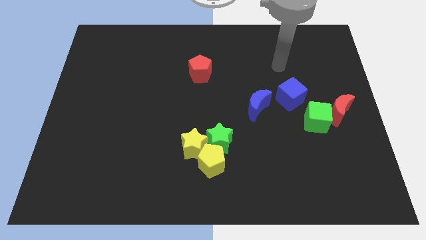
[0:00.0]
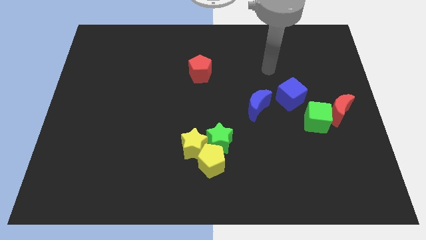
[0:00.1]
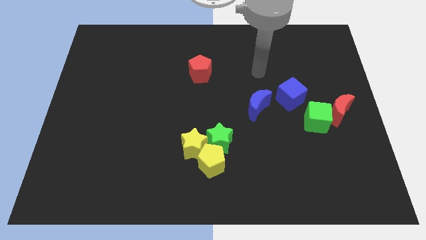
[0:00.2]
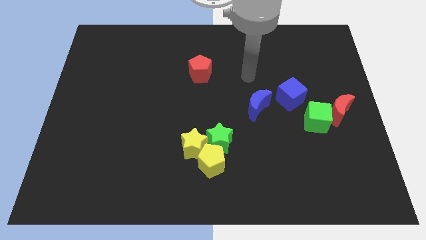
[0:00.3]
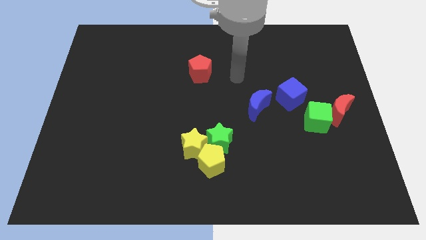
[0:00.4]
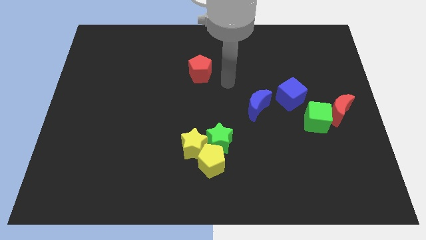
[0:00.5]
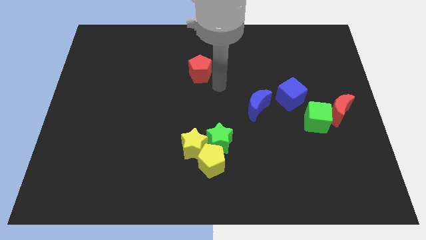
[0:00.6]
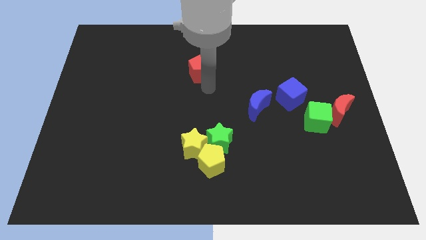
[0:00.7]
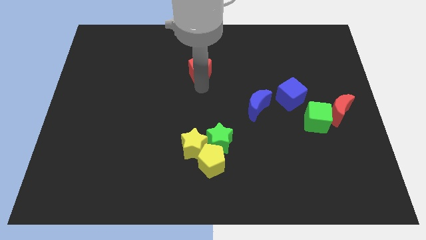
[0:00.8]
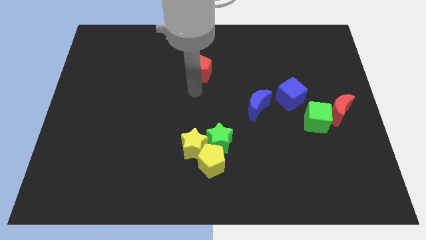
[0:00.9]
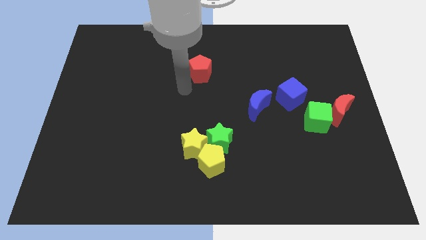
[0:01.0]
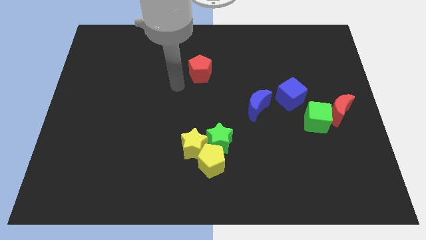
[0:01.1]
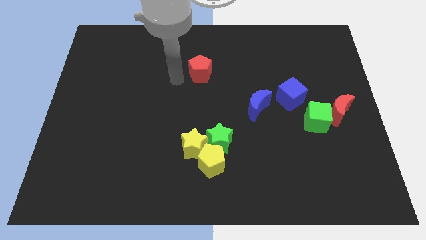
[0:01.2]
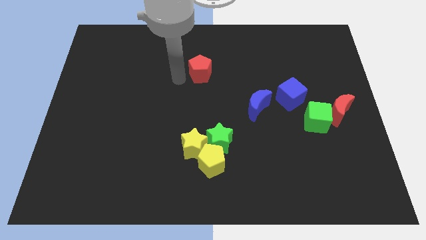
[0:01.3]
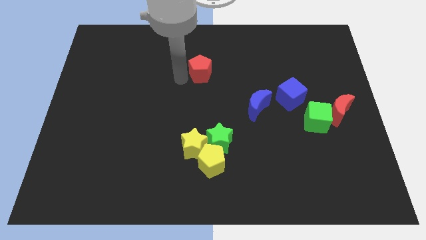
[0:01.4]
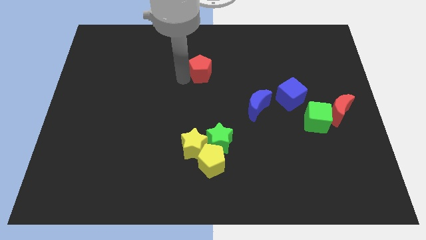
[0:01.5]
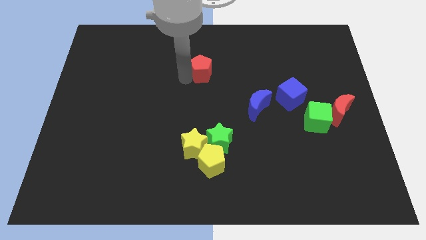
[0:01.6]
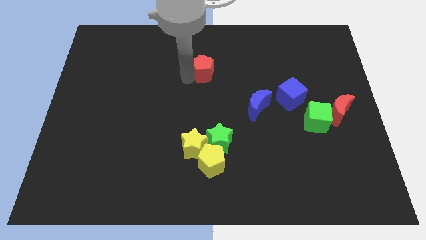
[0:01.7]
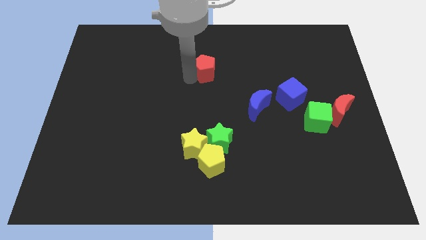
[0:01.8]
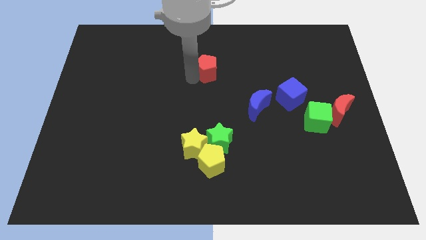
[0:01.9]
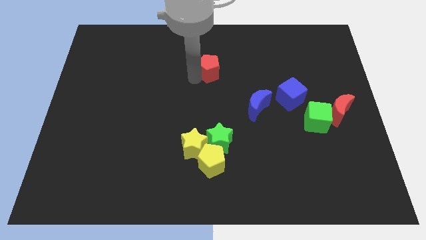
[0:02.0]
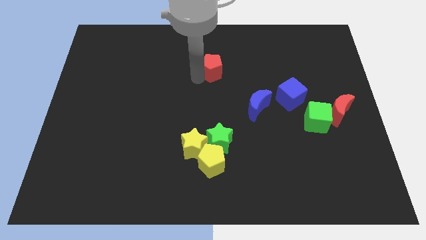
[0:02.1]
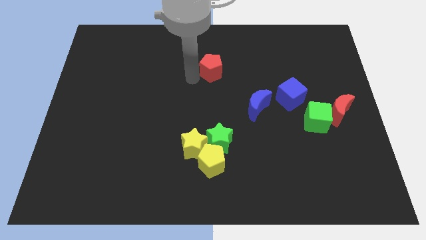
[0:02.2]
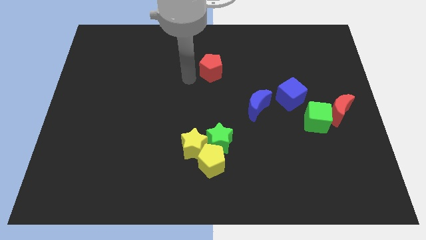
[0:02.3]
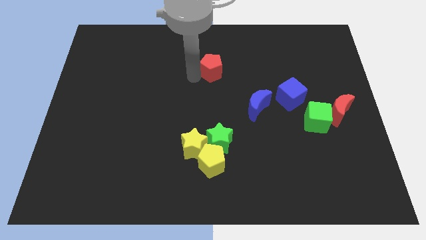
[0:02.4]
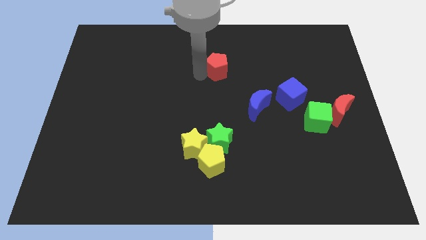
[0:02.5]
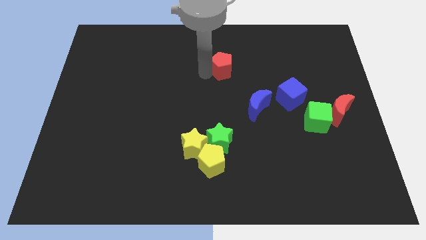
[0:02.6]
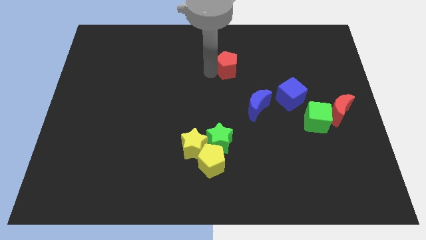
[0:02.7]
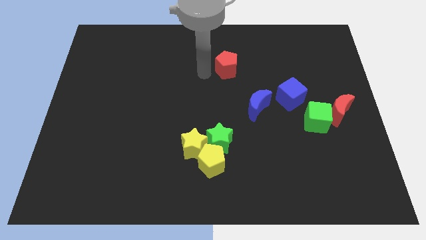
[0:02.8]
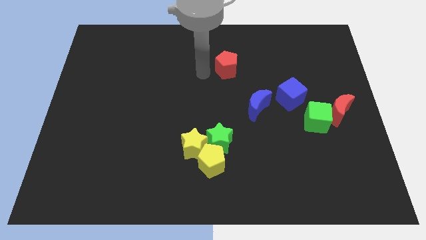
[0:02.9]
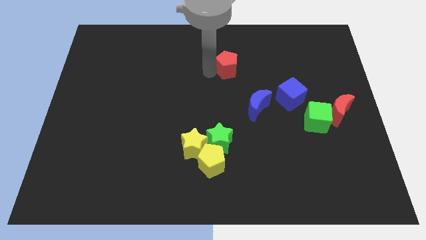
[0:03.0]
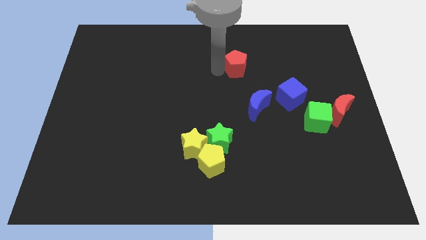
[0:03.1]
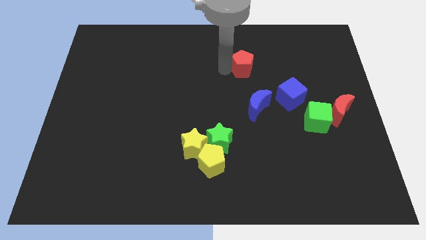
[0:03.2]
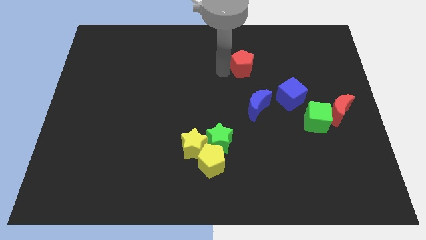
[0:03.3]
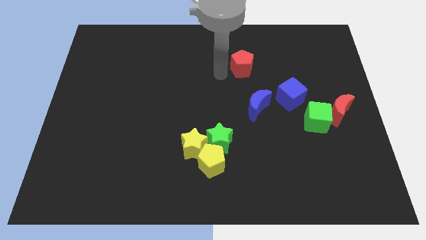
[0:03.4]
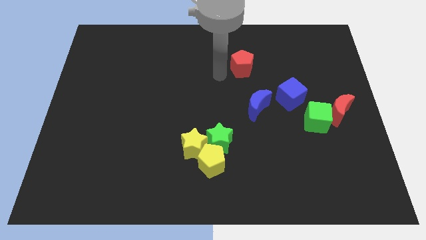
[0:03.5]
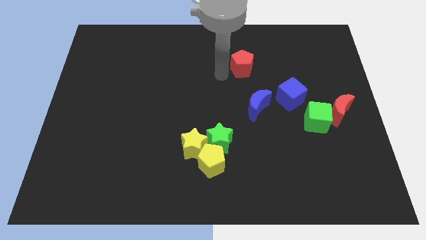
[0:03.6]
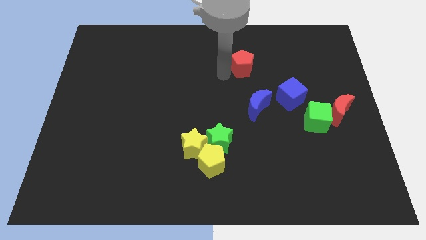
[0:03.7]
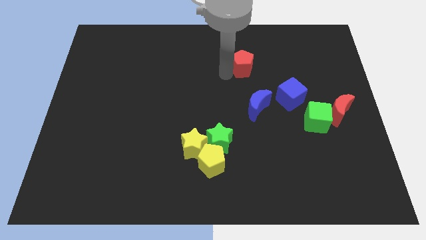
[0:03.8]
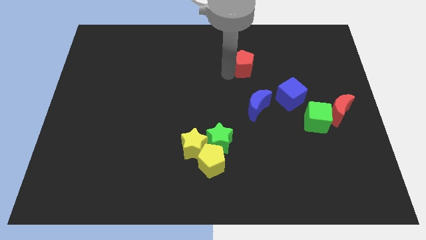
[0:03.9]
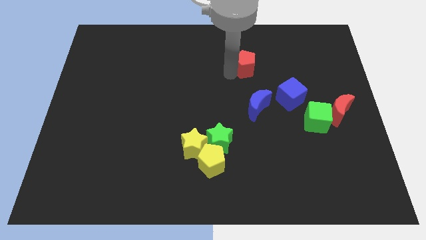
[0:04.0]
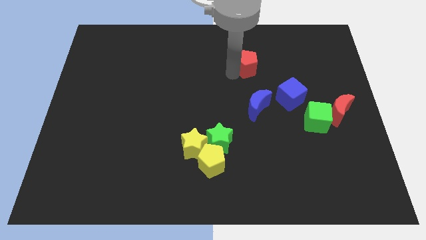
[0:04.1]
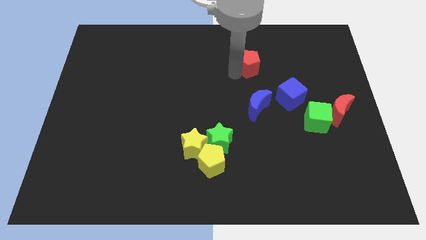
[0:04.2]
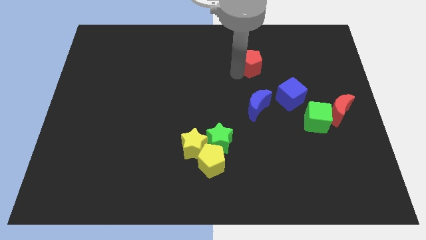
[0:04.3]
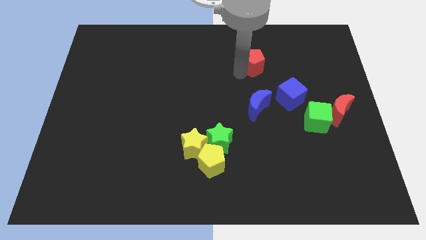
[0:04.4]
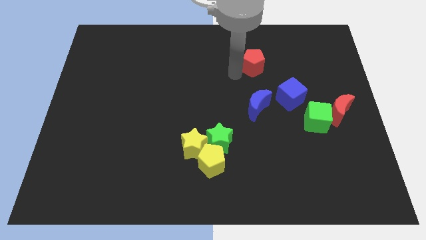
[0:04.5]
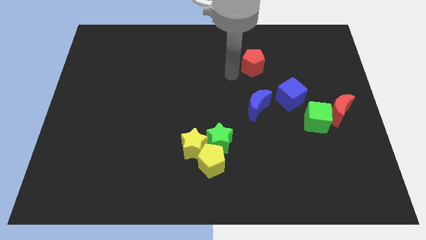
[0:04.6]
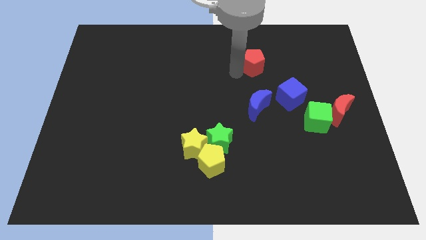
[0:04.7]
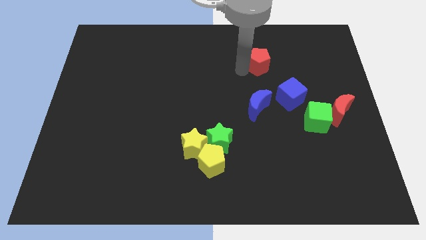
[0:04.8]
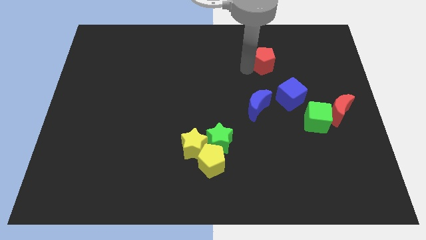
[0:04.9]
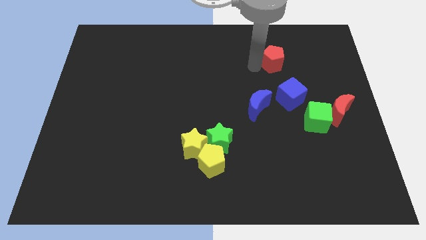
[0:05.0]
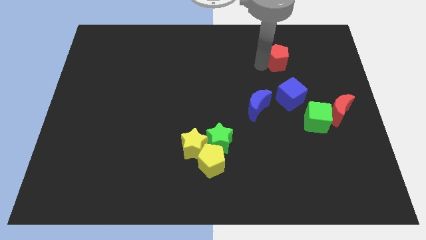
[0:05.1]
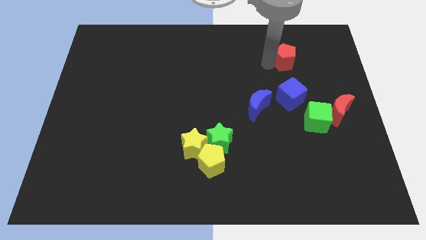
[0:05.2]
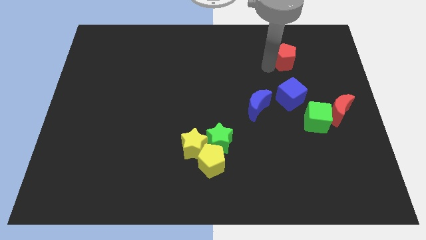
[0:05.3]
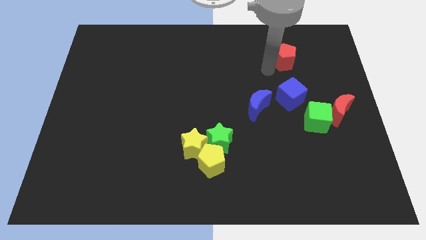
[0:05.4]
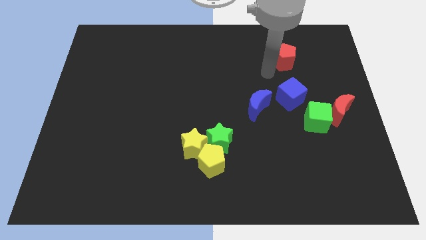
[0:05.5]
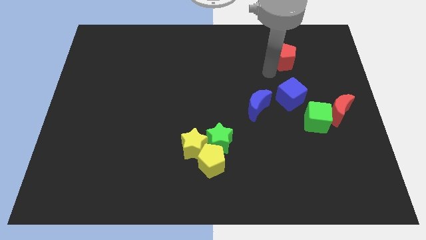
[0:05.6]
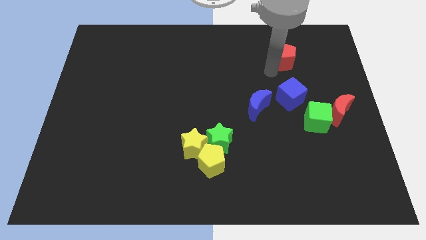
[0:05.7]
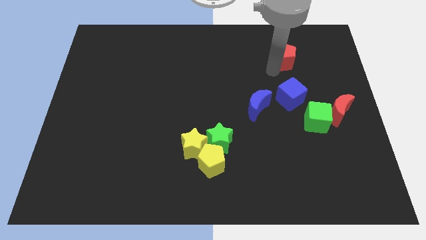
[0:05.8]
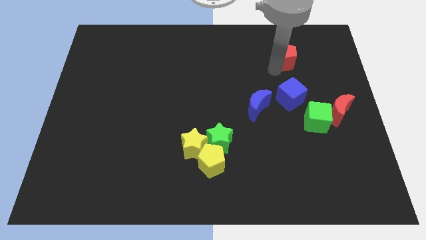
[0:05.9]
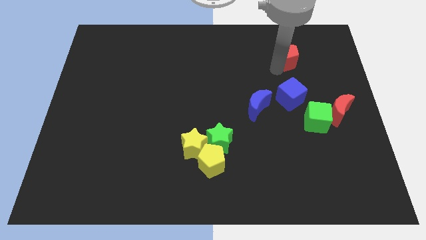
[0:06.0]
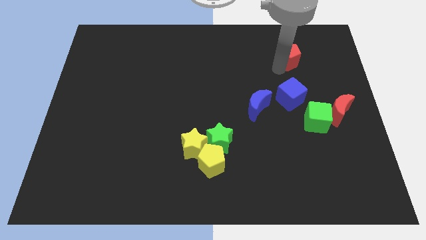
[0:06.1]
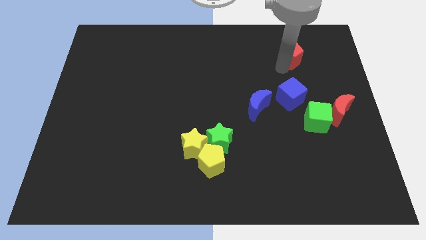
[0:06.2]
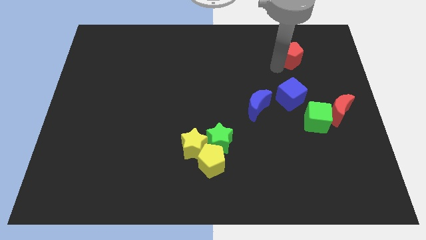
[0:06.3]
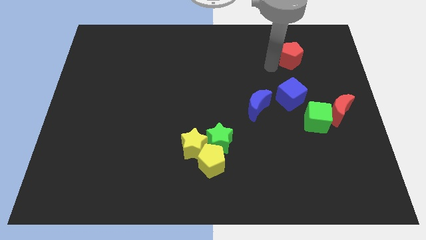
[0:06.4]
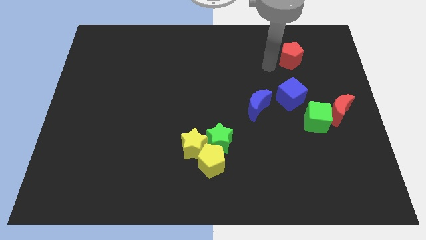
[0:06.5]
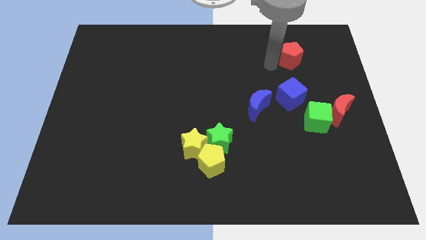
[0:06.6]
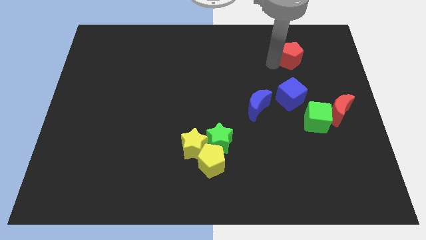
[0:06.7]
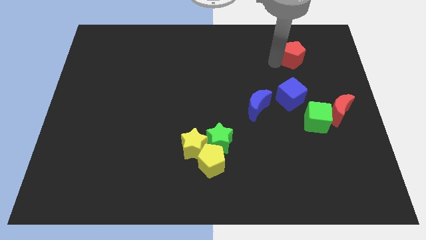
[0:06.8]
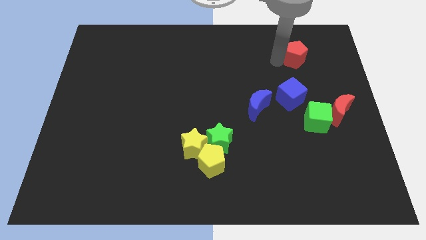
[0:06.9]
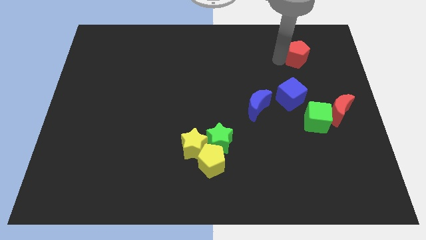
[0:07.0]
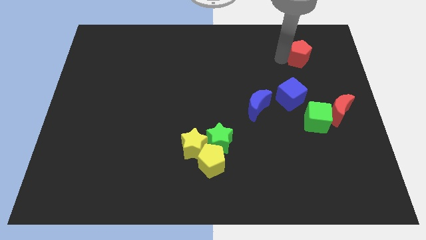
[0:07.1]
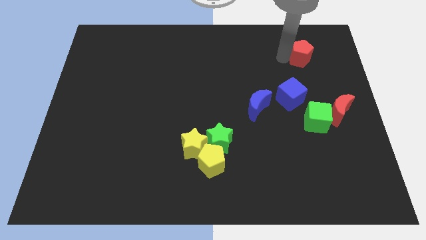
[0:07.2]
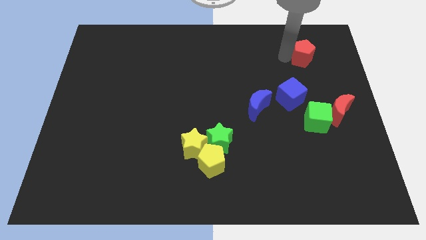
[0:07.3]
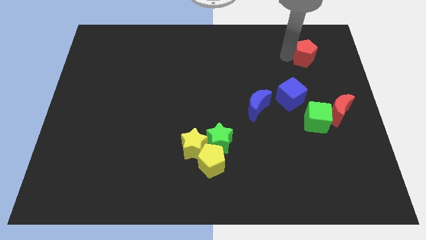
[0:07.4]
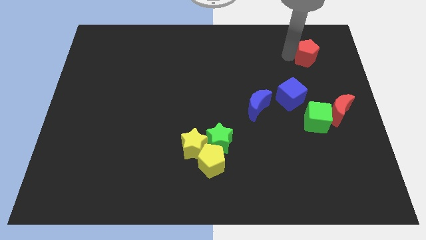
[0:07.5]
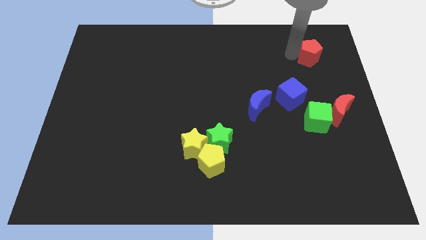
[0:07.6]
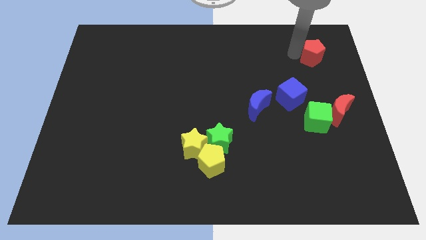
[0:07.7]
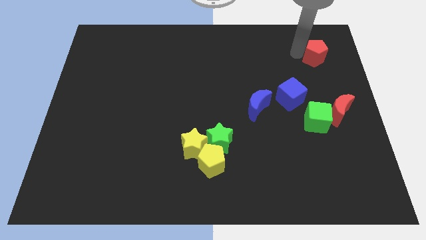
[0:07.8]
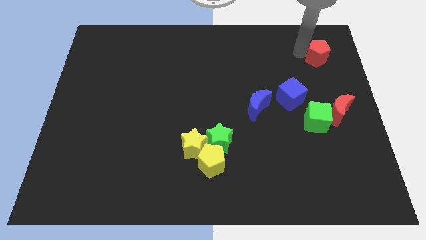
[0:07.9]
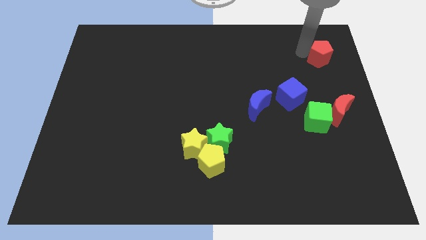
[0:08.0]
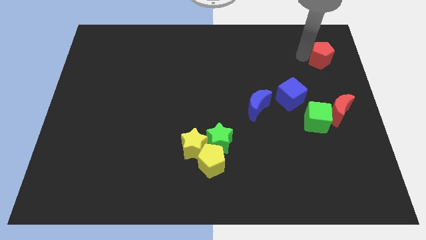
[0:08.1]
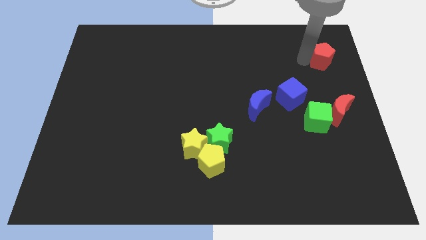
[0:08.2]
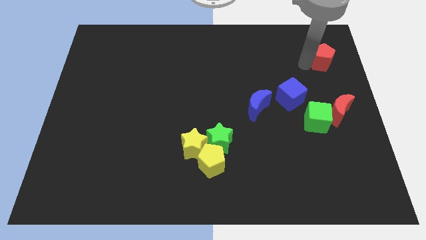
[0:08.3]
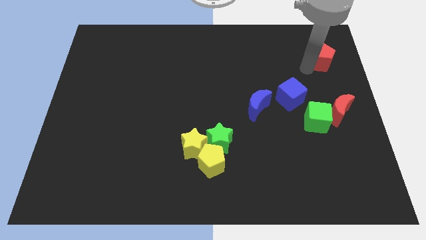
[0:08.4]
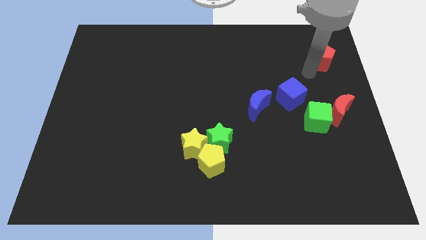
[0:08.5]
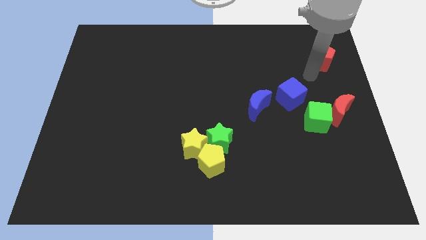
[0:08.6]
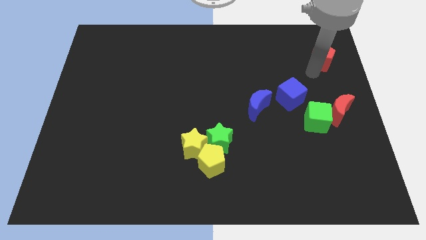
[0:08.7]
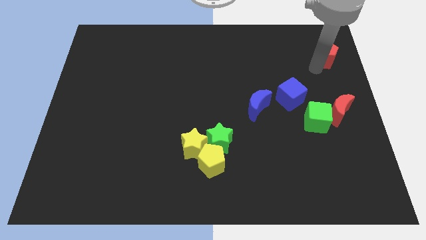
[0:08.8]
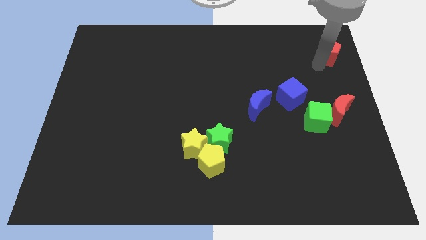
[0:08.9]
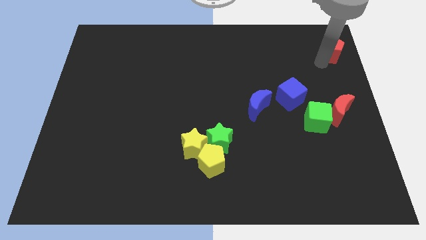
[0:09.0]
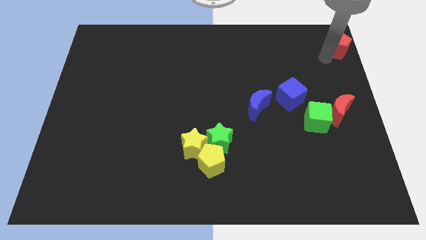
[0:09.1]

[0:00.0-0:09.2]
put the red pentagon to the top right corner
